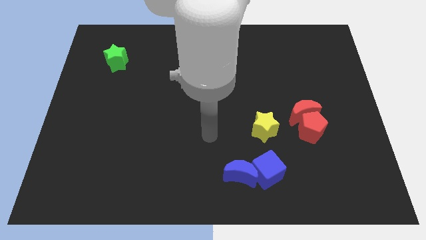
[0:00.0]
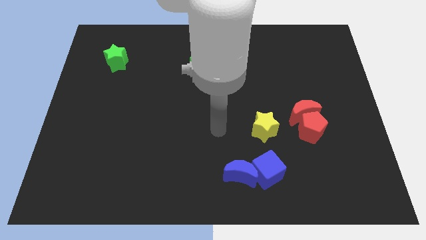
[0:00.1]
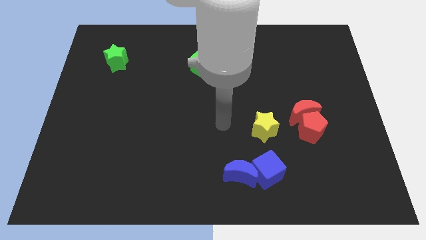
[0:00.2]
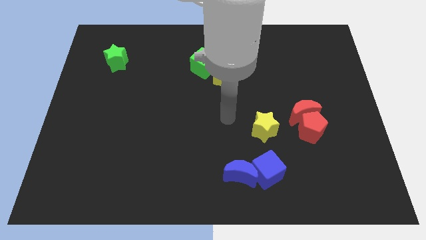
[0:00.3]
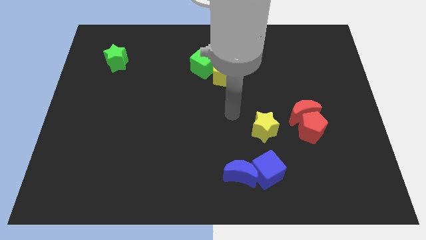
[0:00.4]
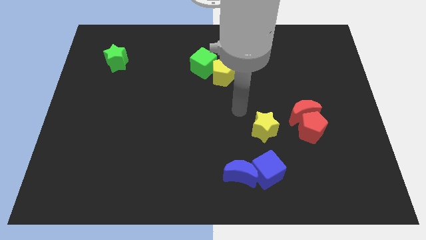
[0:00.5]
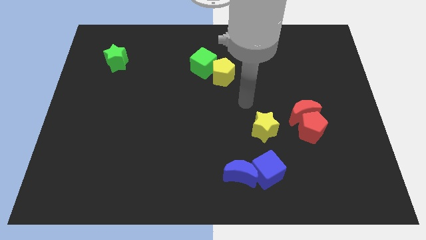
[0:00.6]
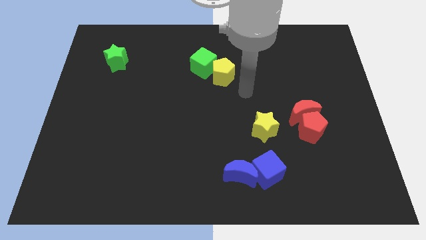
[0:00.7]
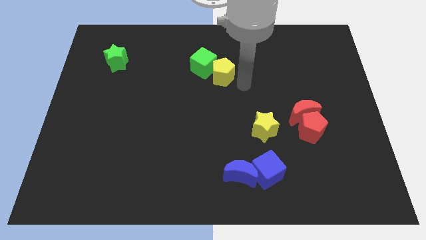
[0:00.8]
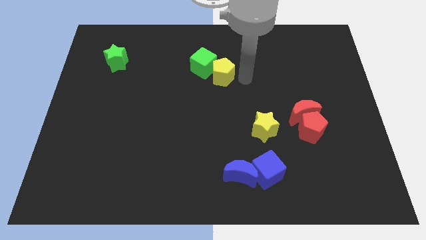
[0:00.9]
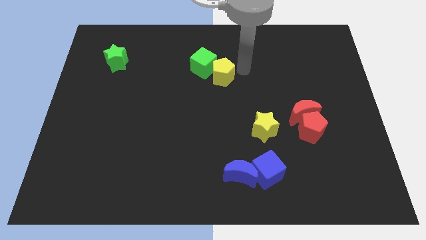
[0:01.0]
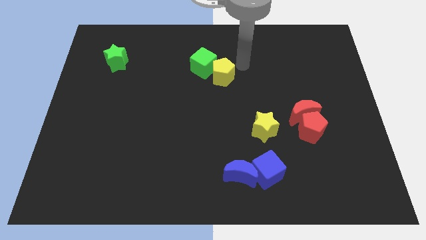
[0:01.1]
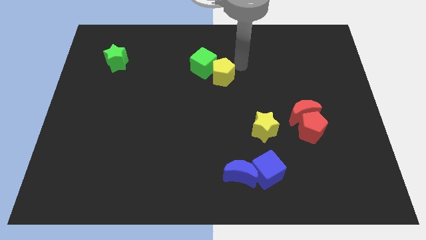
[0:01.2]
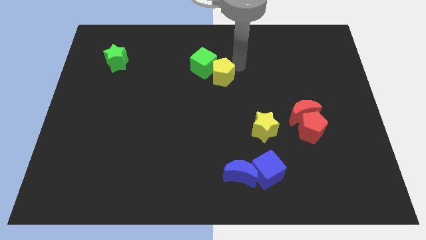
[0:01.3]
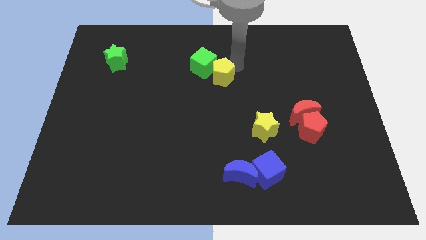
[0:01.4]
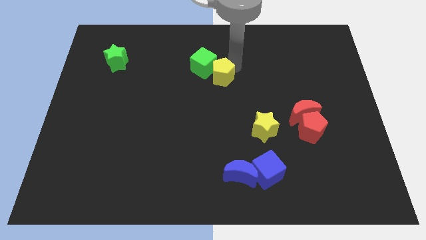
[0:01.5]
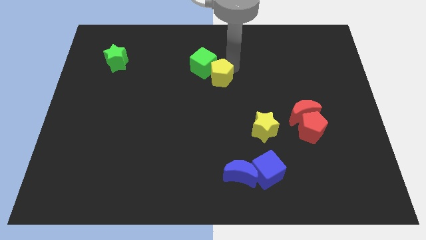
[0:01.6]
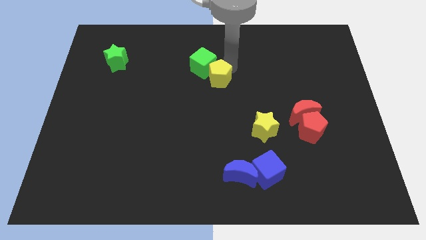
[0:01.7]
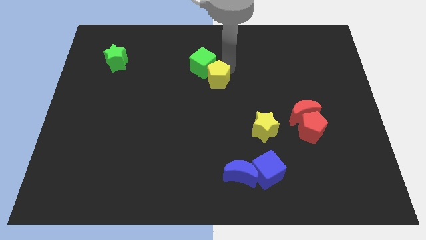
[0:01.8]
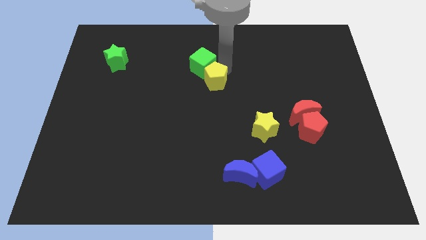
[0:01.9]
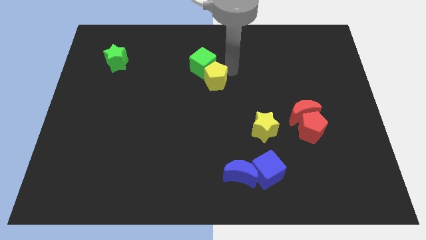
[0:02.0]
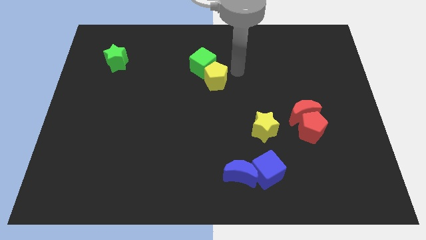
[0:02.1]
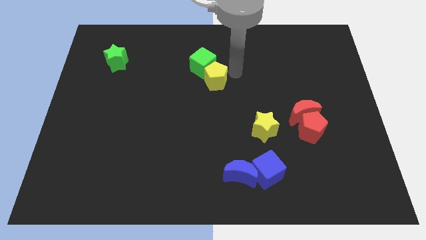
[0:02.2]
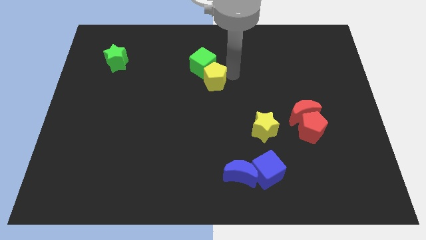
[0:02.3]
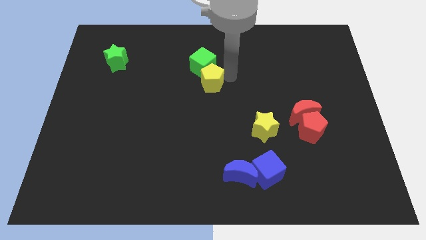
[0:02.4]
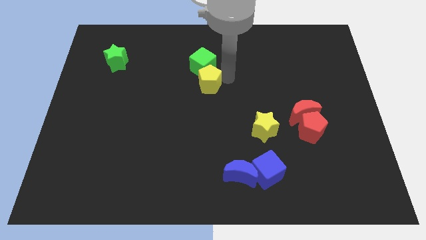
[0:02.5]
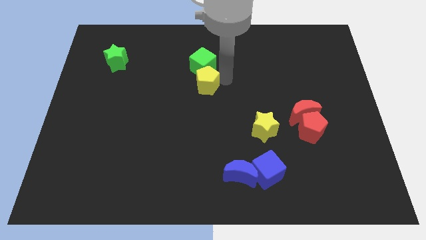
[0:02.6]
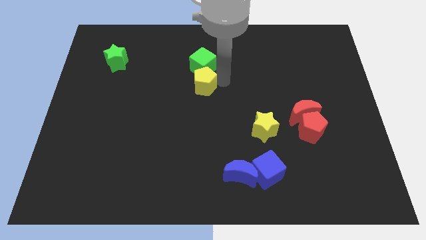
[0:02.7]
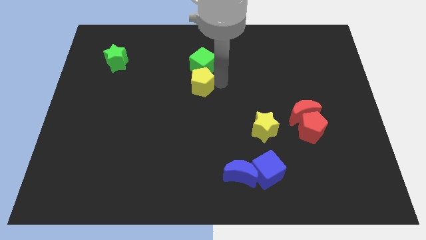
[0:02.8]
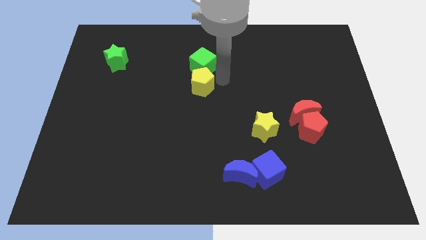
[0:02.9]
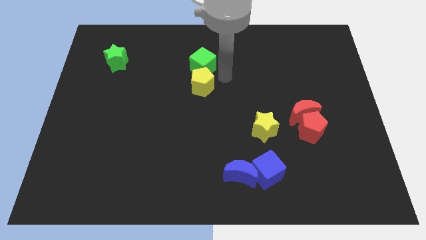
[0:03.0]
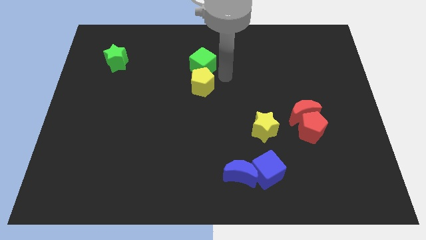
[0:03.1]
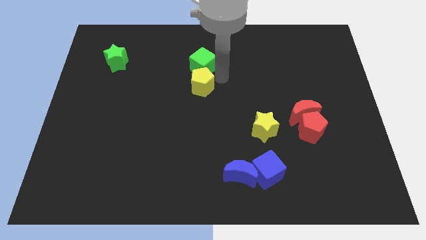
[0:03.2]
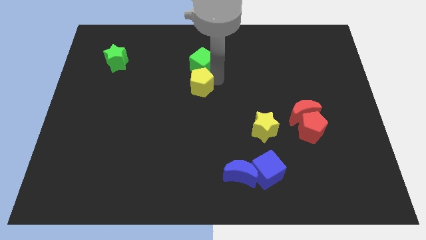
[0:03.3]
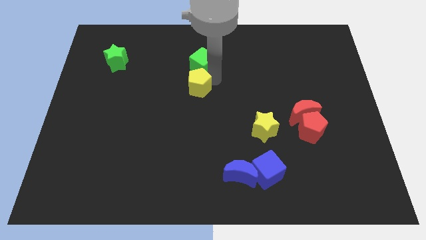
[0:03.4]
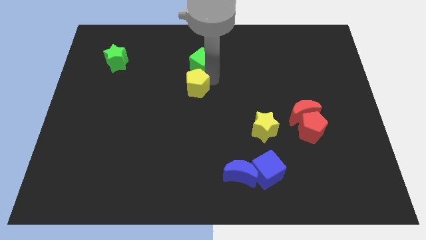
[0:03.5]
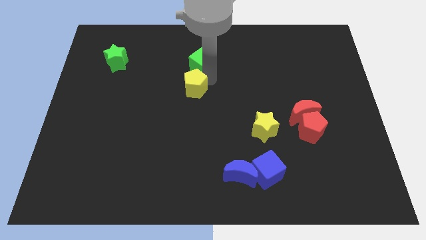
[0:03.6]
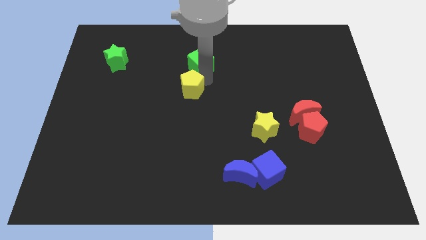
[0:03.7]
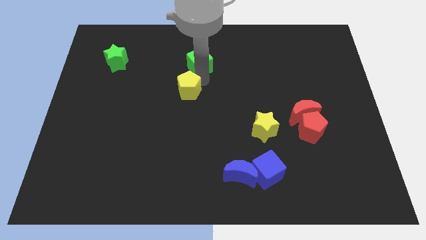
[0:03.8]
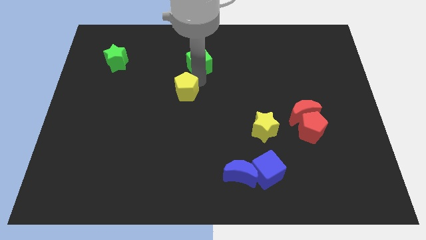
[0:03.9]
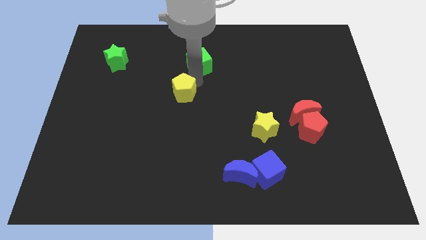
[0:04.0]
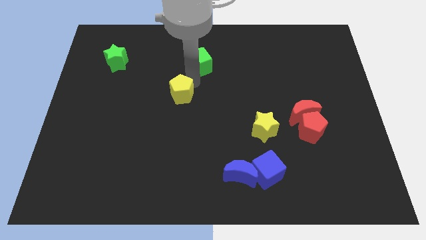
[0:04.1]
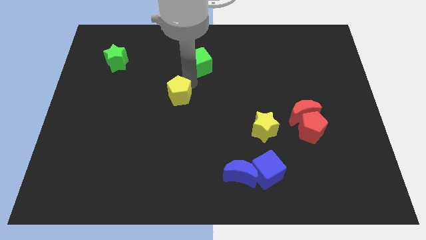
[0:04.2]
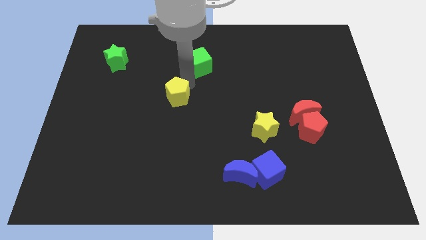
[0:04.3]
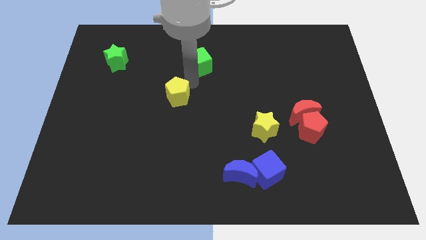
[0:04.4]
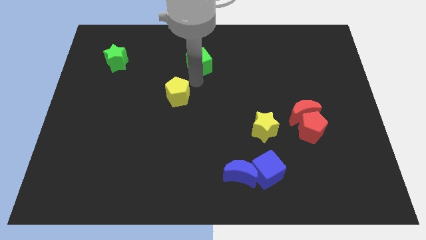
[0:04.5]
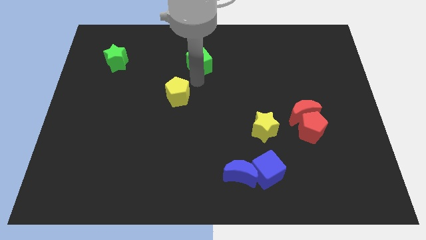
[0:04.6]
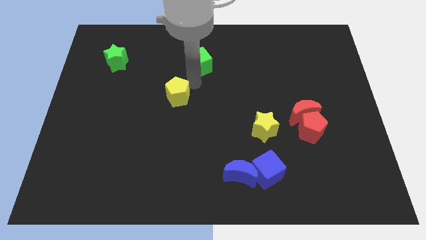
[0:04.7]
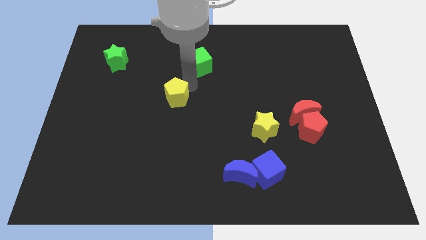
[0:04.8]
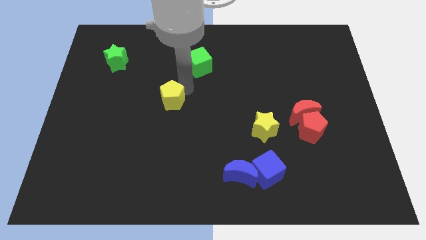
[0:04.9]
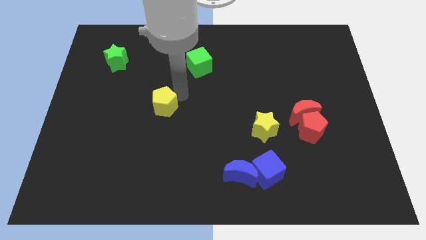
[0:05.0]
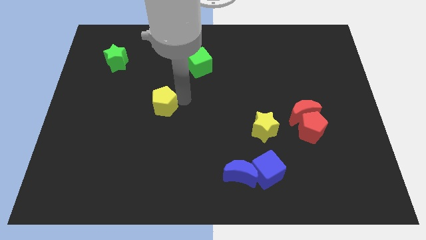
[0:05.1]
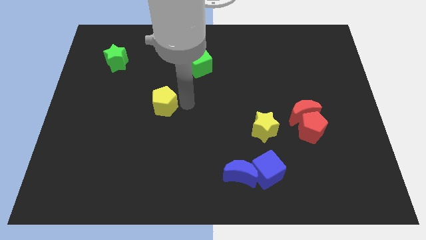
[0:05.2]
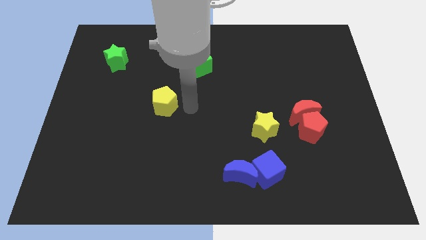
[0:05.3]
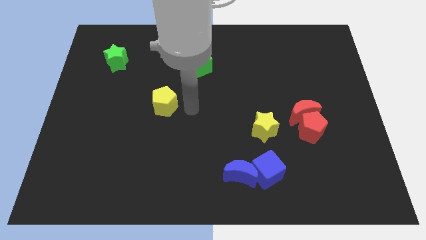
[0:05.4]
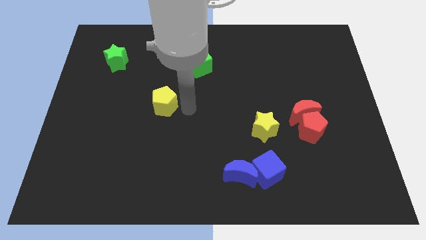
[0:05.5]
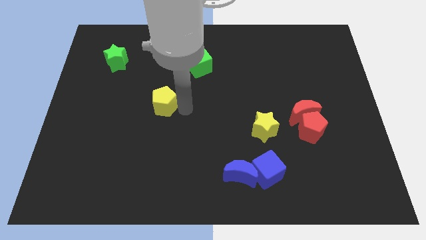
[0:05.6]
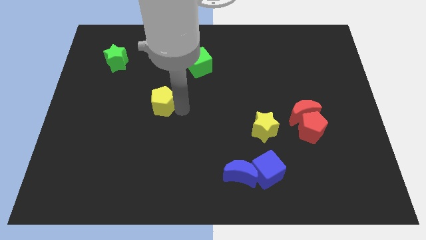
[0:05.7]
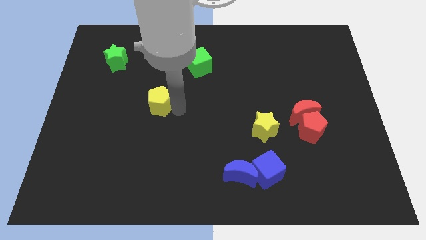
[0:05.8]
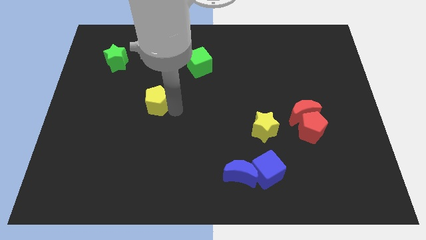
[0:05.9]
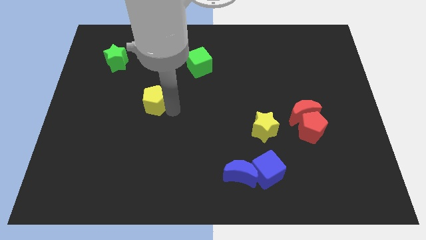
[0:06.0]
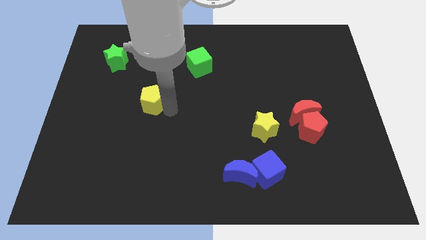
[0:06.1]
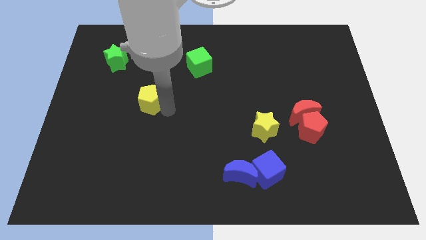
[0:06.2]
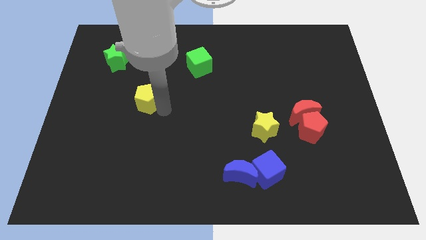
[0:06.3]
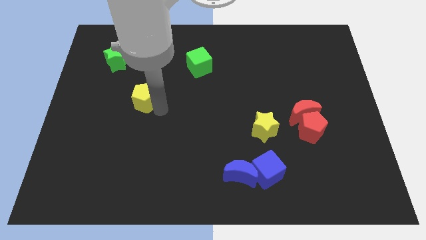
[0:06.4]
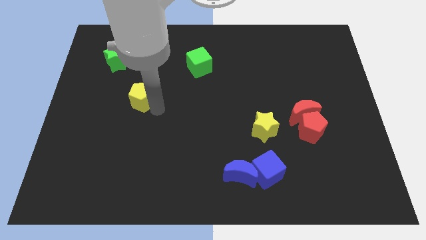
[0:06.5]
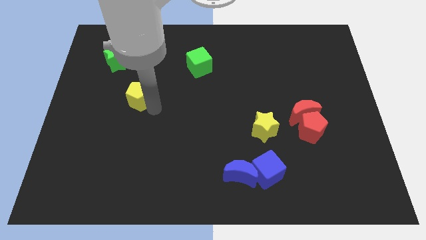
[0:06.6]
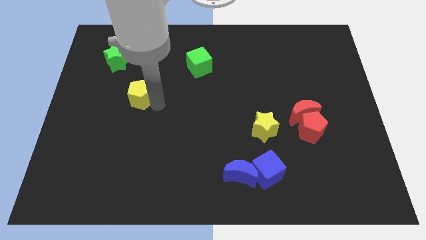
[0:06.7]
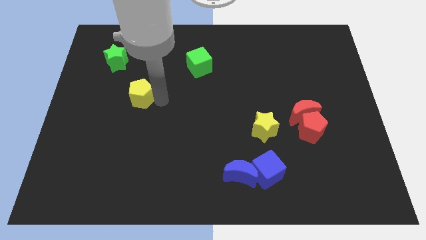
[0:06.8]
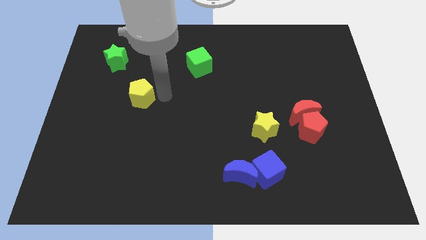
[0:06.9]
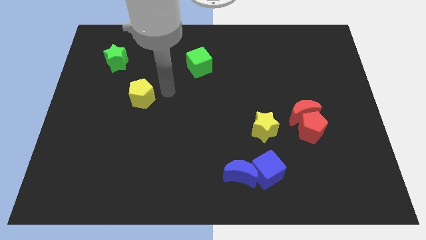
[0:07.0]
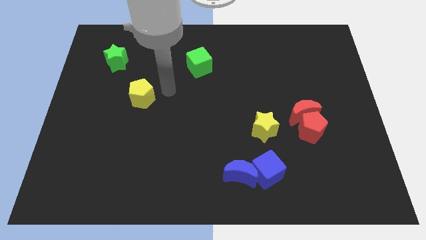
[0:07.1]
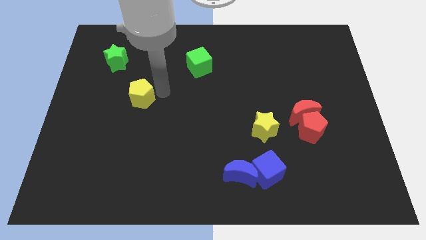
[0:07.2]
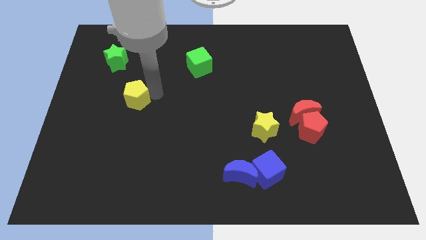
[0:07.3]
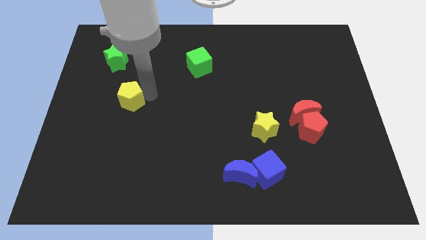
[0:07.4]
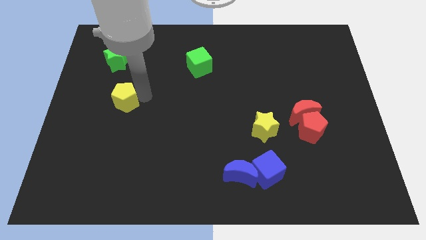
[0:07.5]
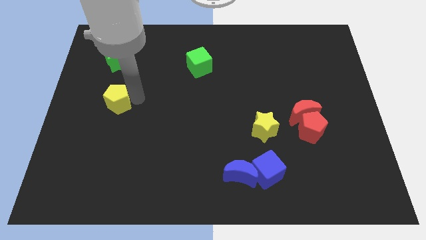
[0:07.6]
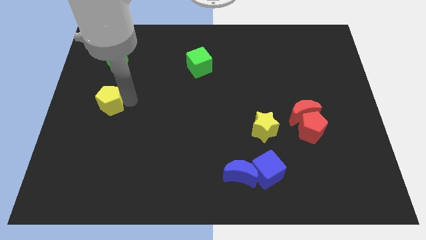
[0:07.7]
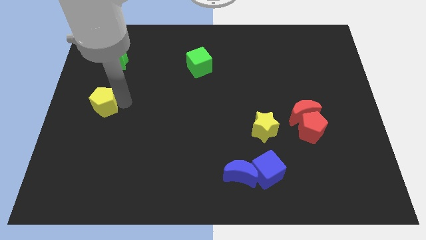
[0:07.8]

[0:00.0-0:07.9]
push the yellow pentagon to the left side of the board

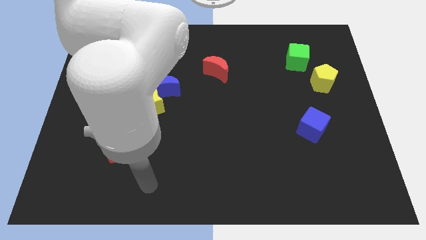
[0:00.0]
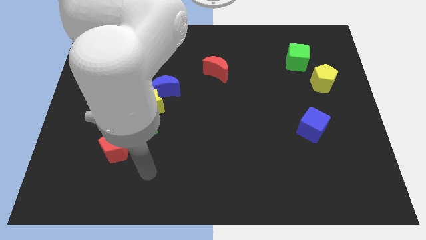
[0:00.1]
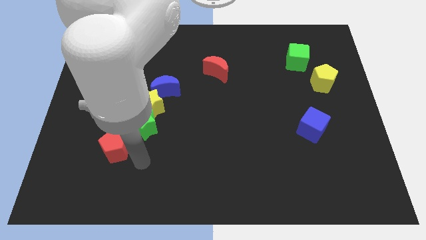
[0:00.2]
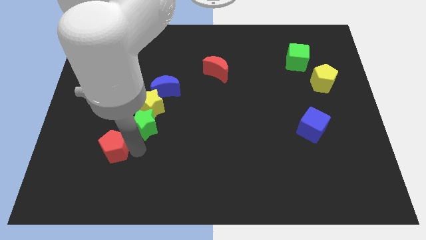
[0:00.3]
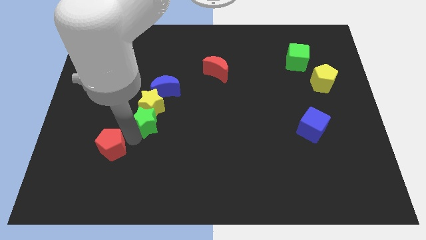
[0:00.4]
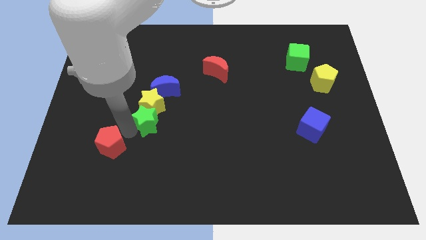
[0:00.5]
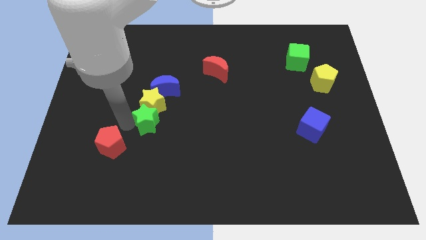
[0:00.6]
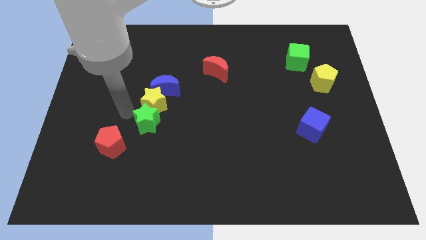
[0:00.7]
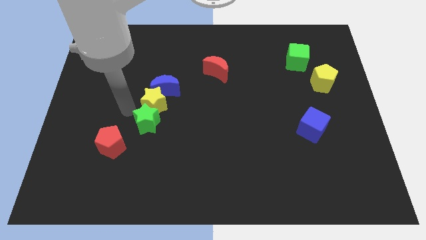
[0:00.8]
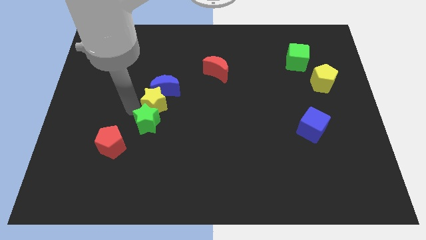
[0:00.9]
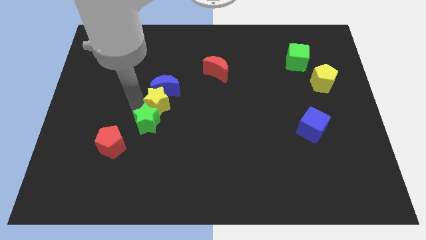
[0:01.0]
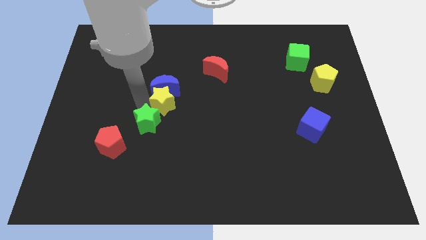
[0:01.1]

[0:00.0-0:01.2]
put the yellow star to the middle of the board
